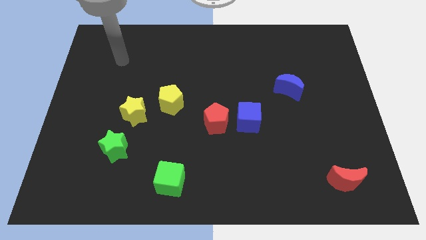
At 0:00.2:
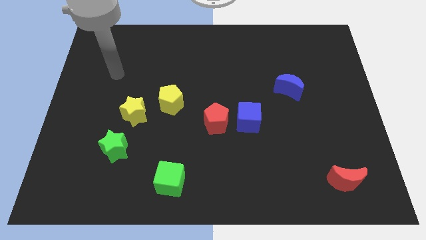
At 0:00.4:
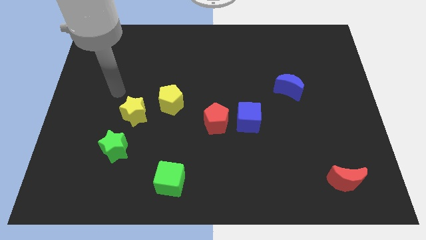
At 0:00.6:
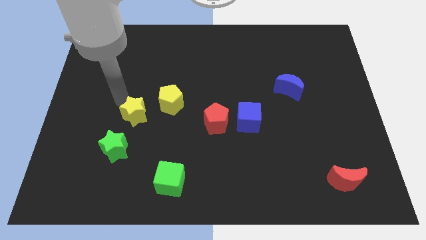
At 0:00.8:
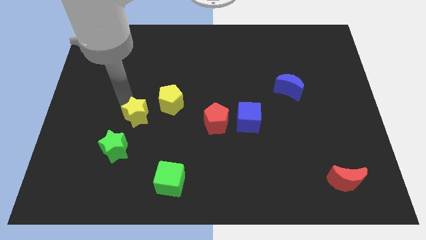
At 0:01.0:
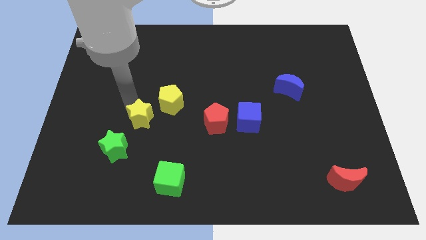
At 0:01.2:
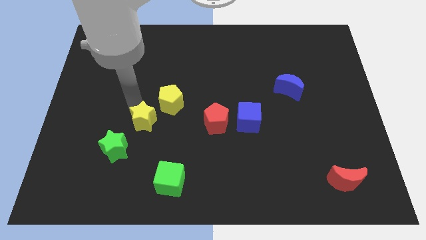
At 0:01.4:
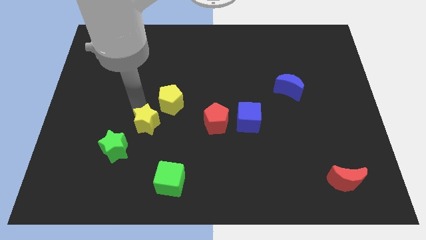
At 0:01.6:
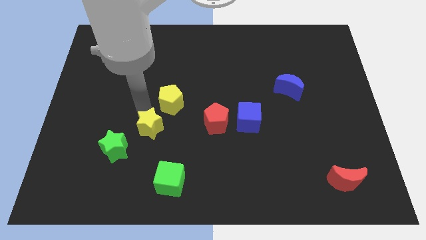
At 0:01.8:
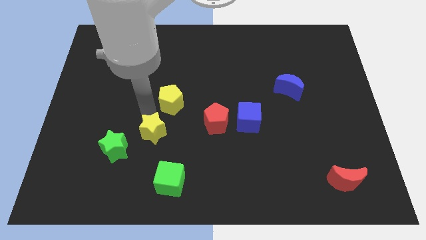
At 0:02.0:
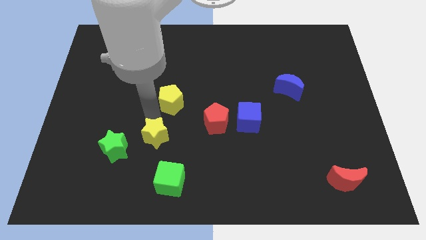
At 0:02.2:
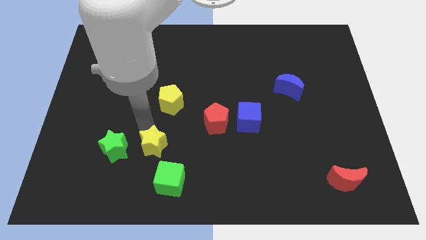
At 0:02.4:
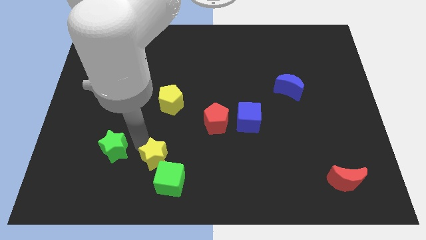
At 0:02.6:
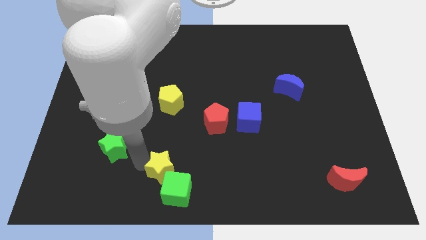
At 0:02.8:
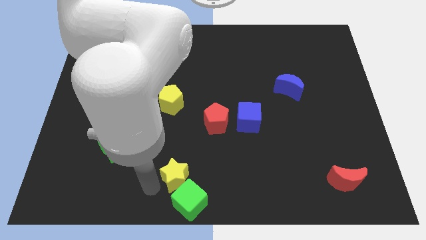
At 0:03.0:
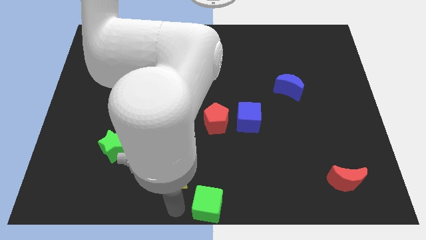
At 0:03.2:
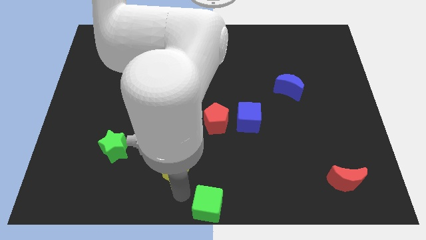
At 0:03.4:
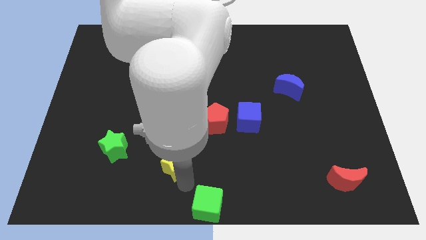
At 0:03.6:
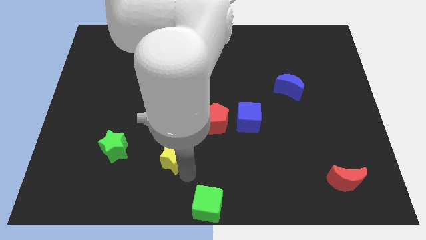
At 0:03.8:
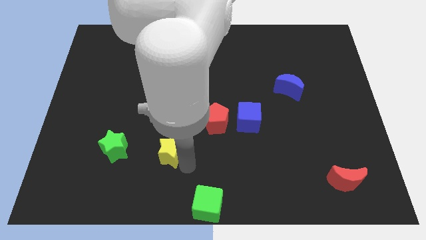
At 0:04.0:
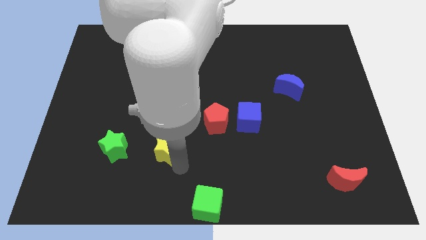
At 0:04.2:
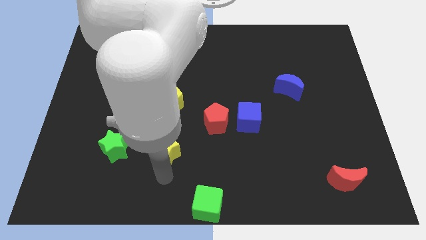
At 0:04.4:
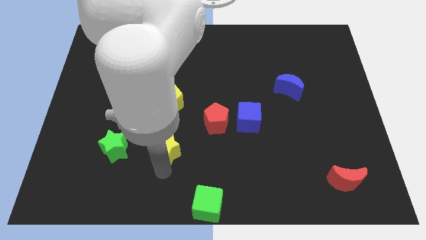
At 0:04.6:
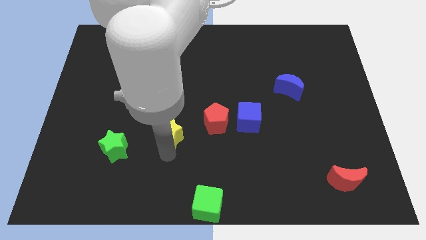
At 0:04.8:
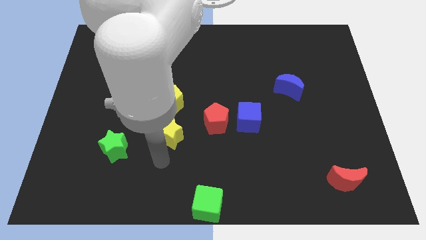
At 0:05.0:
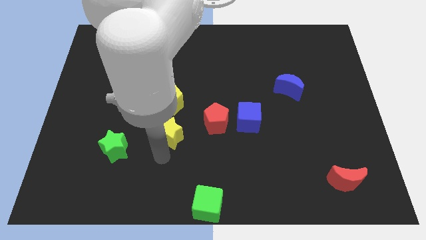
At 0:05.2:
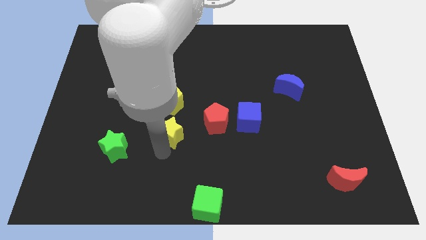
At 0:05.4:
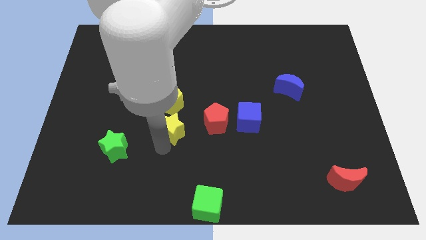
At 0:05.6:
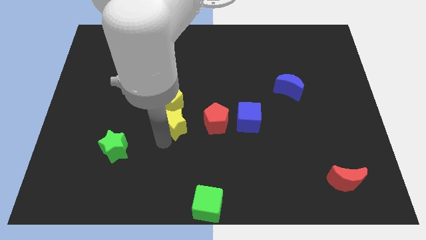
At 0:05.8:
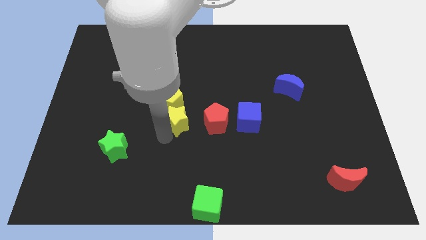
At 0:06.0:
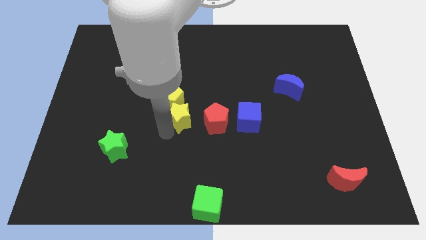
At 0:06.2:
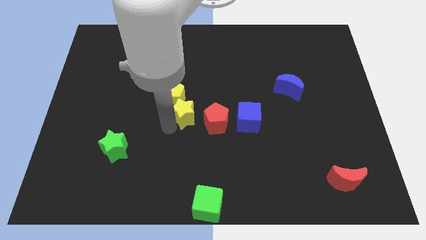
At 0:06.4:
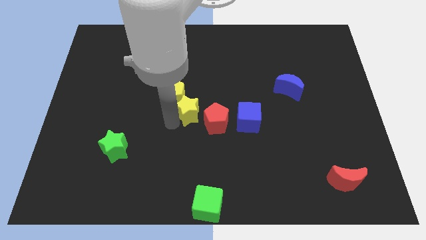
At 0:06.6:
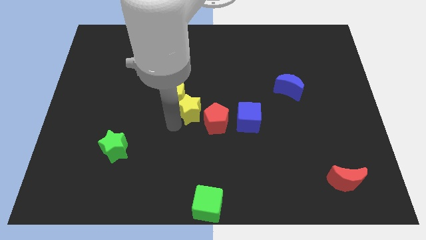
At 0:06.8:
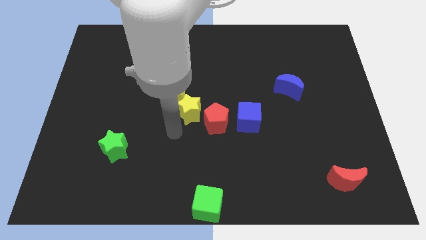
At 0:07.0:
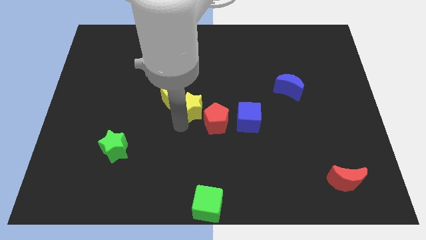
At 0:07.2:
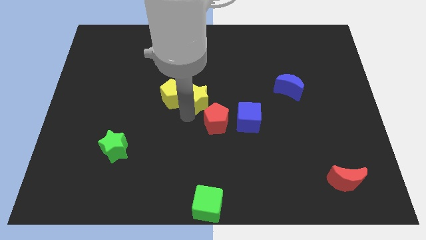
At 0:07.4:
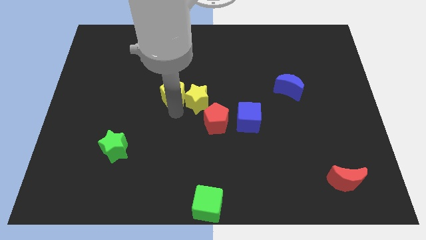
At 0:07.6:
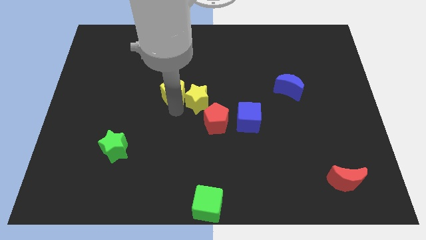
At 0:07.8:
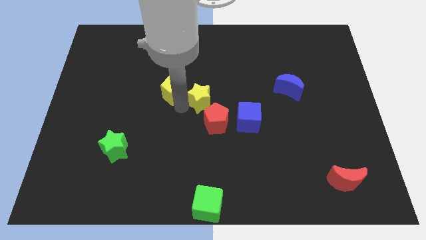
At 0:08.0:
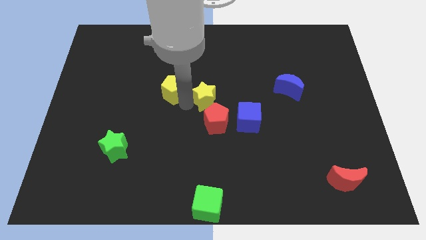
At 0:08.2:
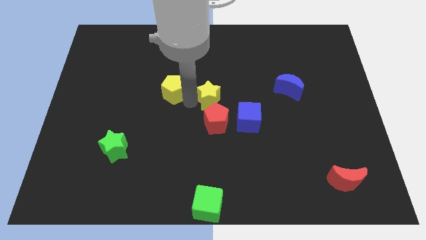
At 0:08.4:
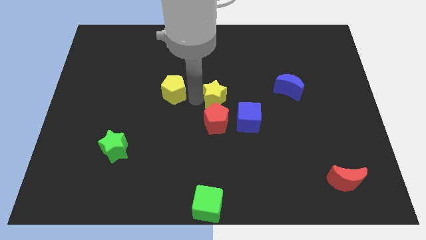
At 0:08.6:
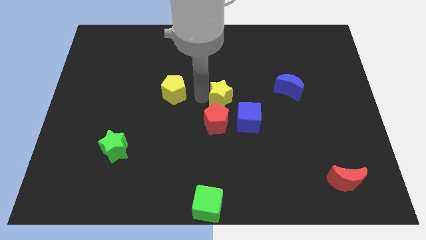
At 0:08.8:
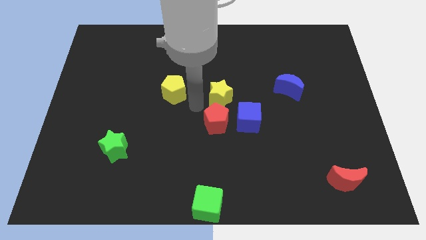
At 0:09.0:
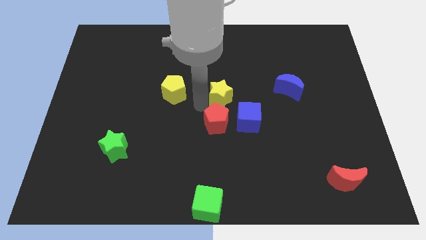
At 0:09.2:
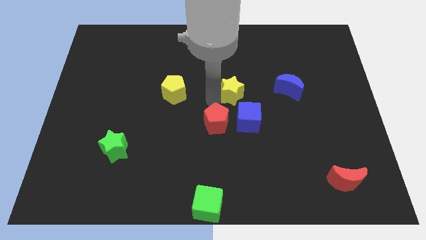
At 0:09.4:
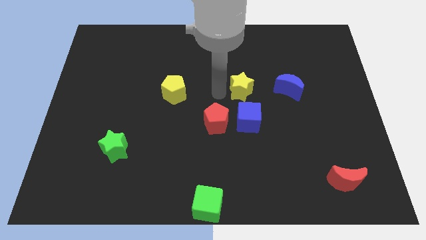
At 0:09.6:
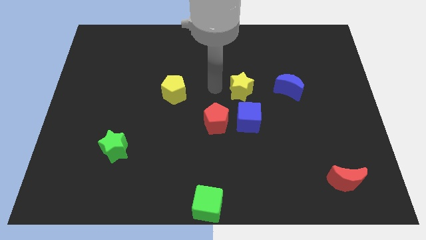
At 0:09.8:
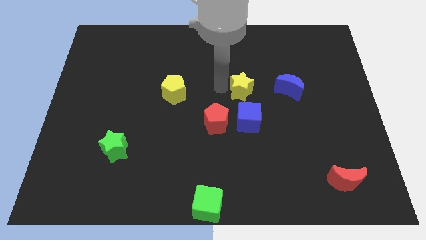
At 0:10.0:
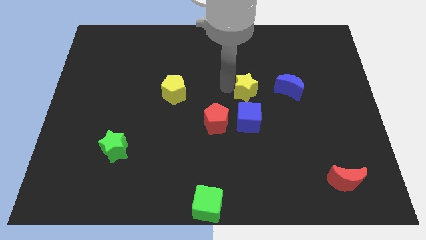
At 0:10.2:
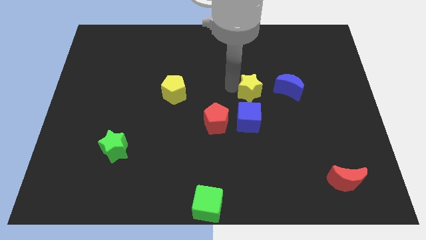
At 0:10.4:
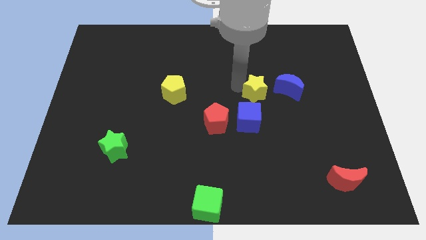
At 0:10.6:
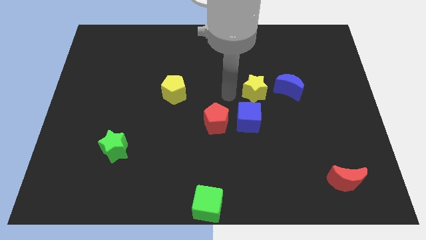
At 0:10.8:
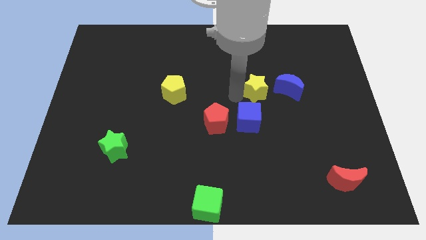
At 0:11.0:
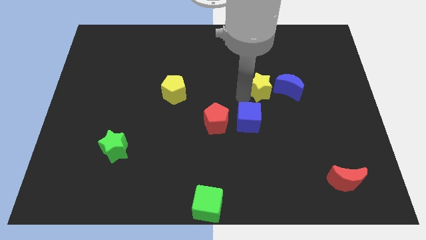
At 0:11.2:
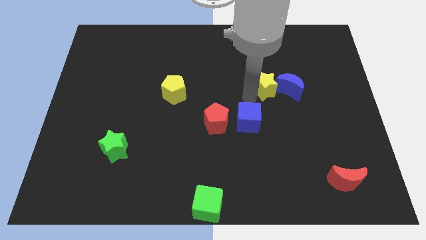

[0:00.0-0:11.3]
push the yellow star to the blue moon
